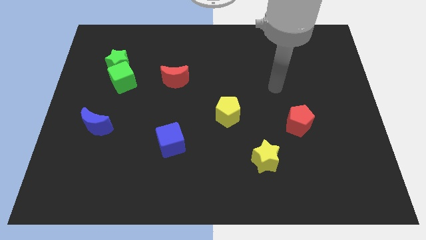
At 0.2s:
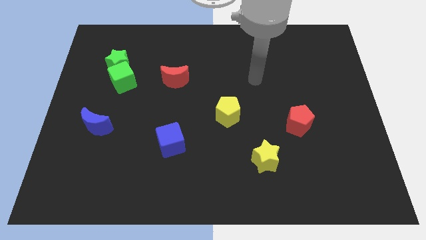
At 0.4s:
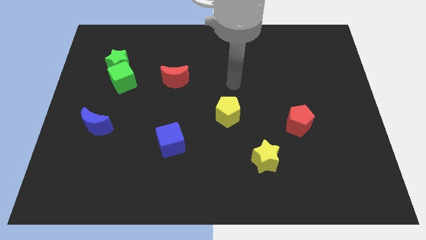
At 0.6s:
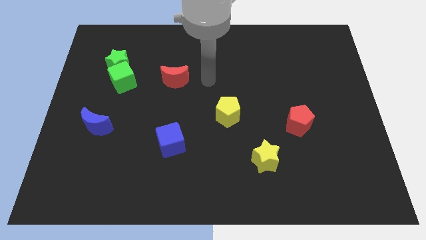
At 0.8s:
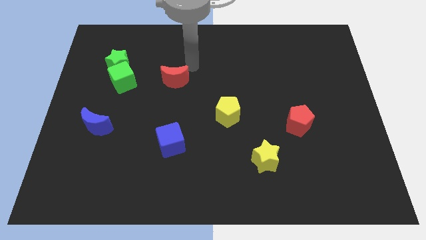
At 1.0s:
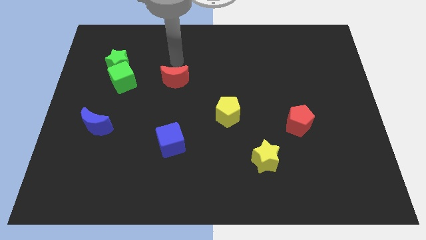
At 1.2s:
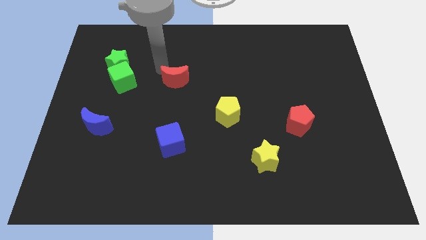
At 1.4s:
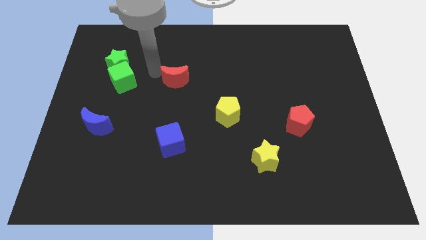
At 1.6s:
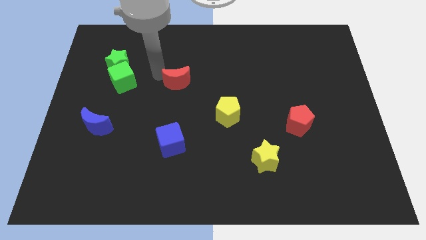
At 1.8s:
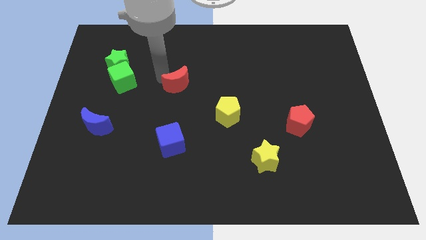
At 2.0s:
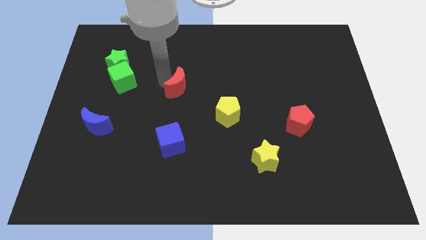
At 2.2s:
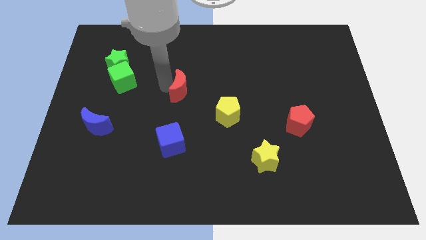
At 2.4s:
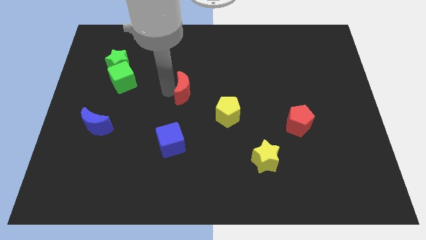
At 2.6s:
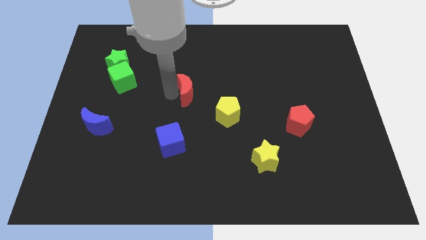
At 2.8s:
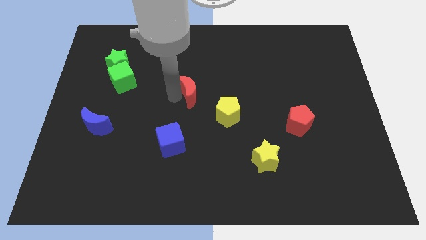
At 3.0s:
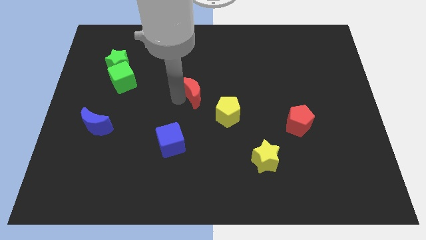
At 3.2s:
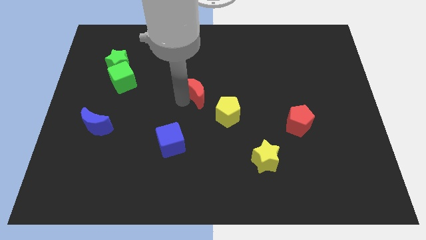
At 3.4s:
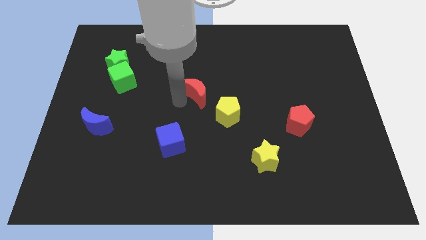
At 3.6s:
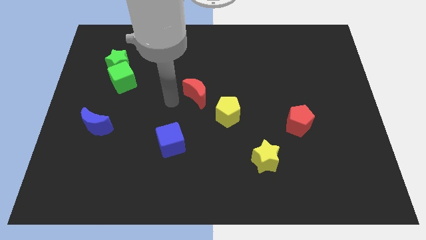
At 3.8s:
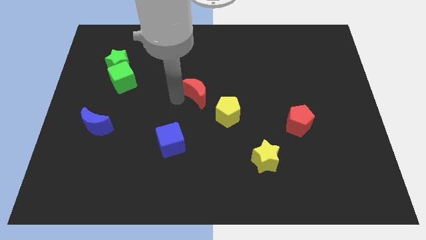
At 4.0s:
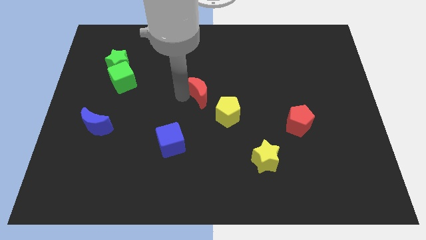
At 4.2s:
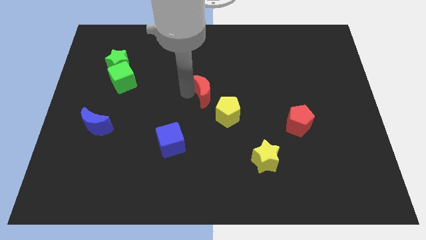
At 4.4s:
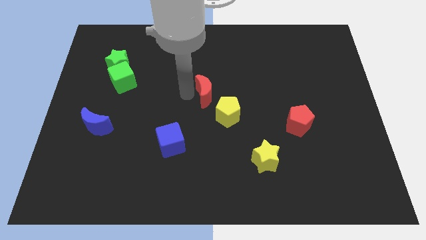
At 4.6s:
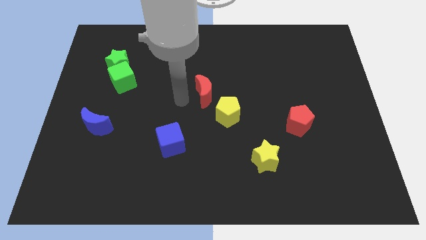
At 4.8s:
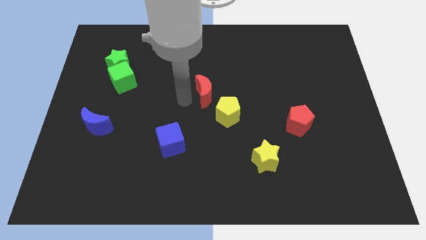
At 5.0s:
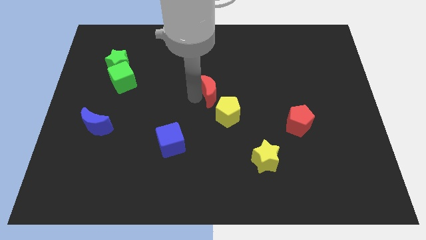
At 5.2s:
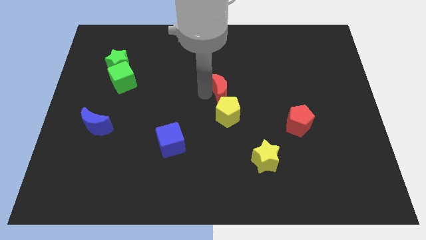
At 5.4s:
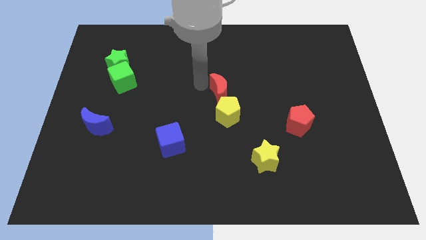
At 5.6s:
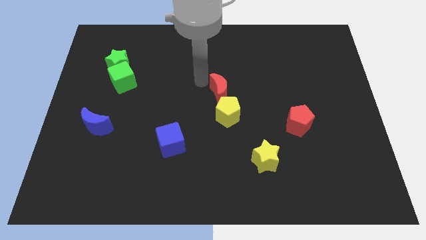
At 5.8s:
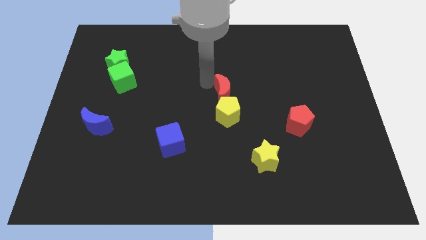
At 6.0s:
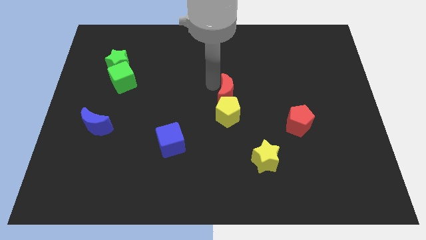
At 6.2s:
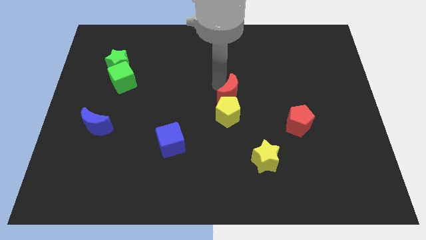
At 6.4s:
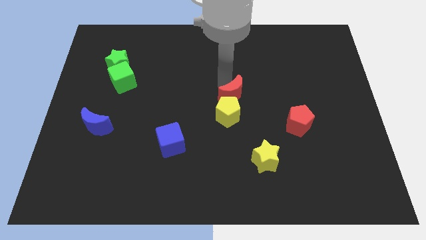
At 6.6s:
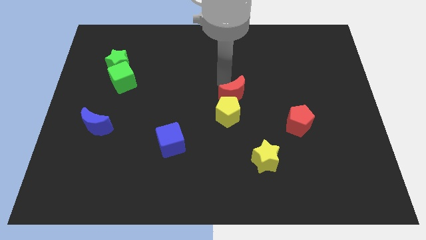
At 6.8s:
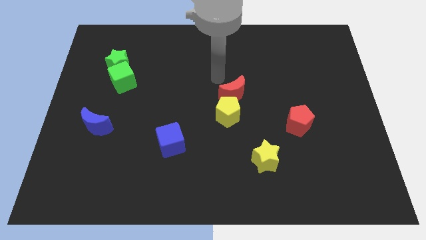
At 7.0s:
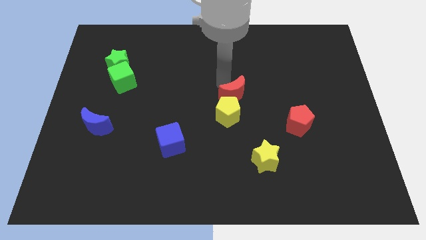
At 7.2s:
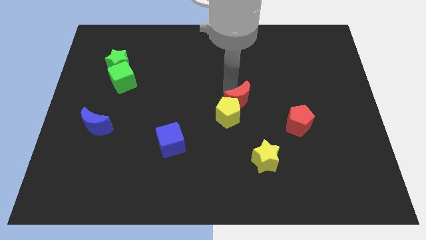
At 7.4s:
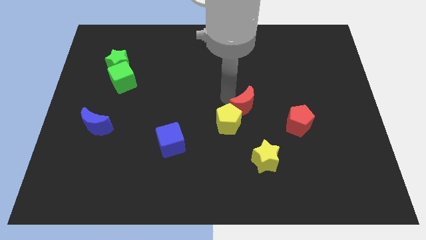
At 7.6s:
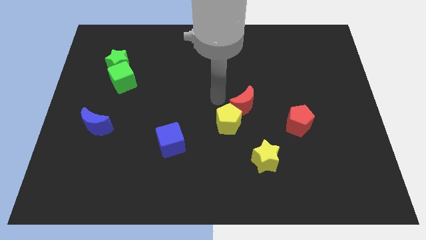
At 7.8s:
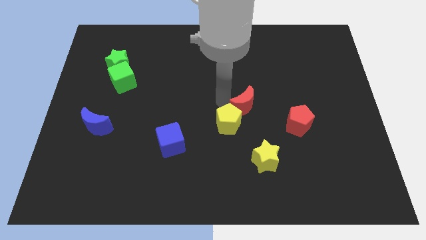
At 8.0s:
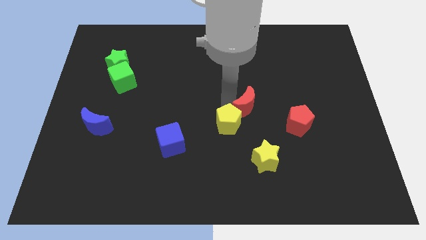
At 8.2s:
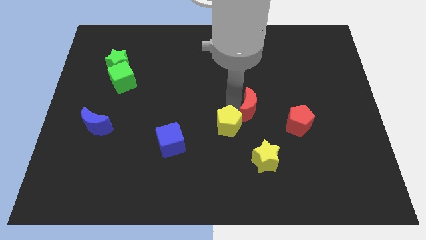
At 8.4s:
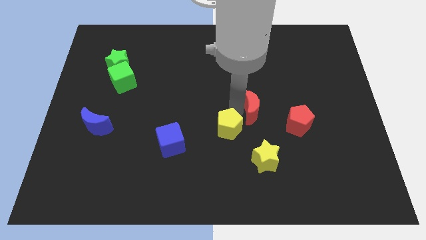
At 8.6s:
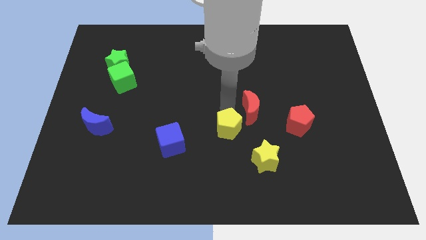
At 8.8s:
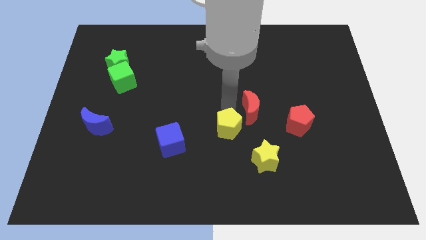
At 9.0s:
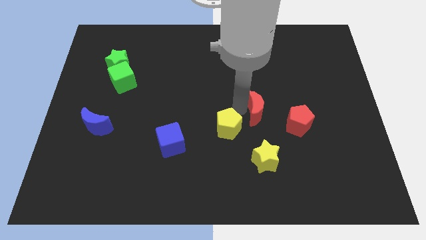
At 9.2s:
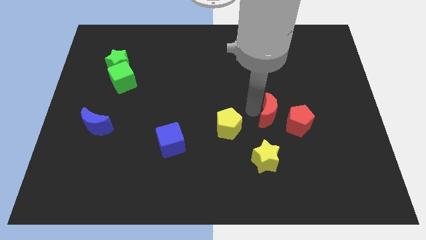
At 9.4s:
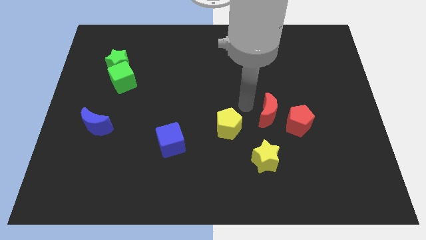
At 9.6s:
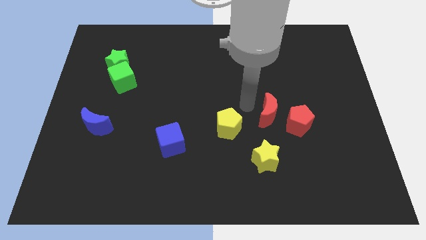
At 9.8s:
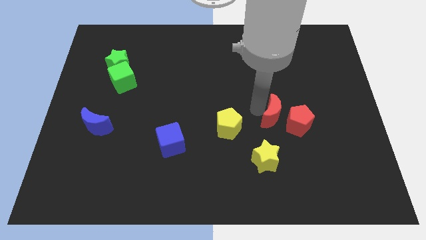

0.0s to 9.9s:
move the red moon next to the red pentagon

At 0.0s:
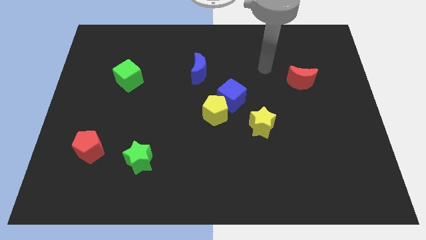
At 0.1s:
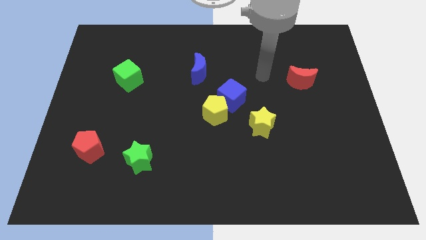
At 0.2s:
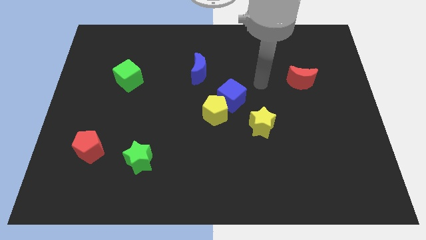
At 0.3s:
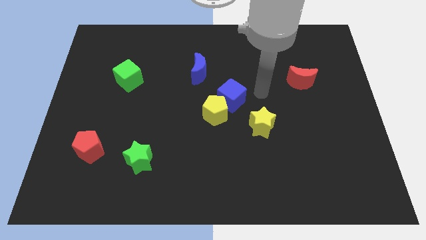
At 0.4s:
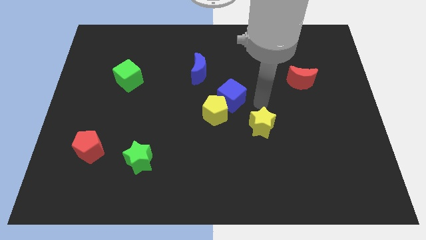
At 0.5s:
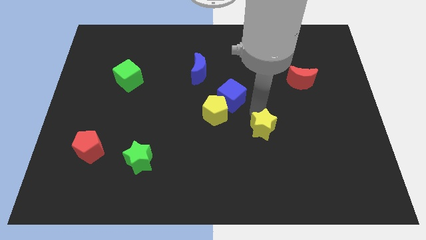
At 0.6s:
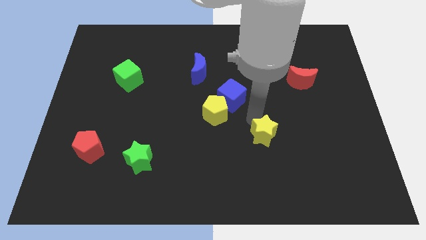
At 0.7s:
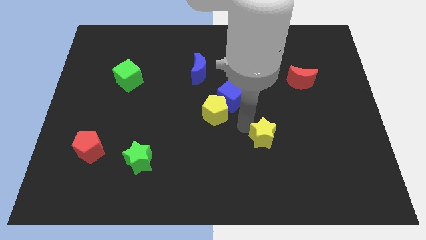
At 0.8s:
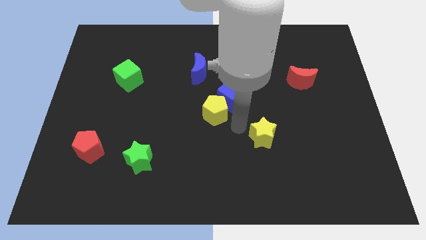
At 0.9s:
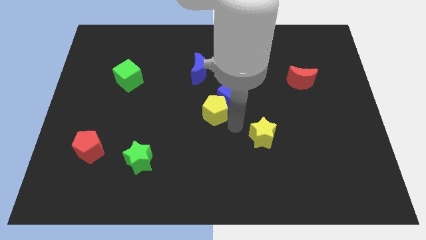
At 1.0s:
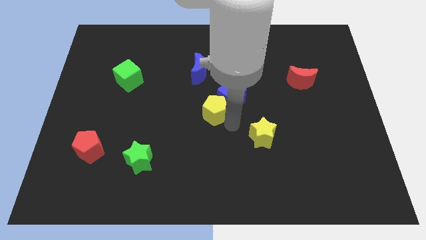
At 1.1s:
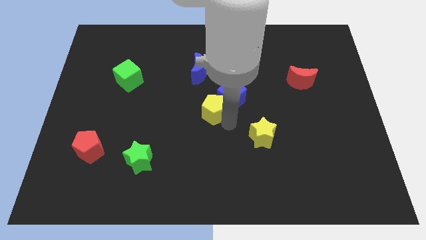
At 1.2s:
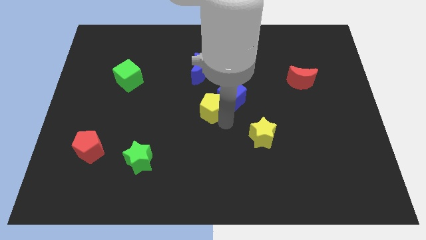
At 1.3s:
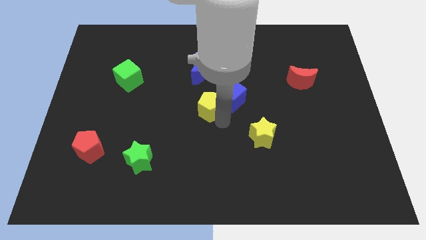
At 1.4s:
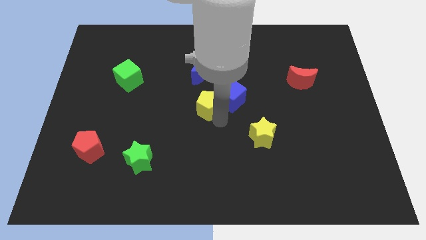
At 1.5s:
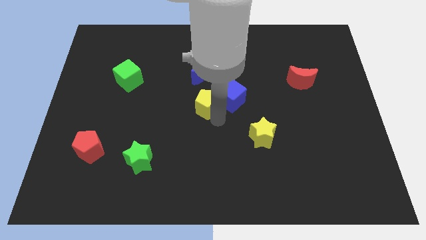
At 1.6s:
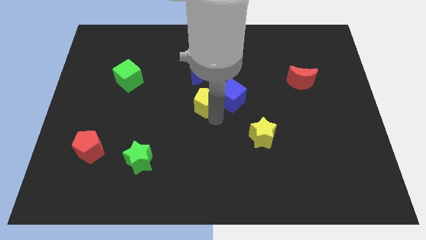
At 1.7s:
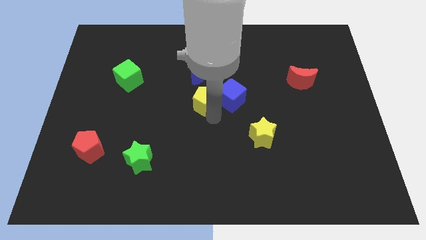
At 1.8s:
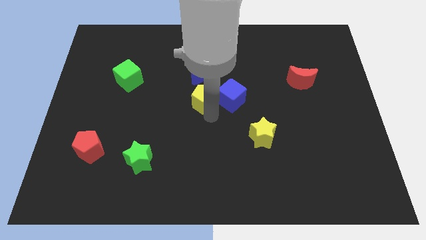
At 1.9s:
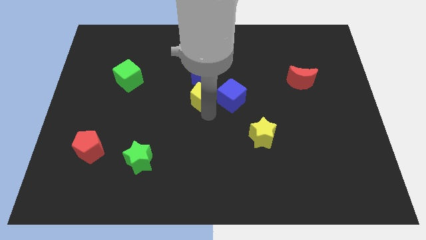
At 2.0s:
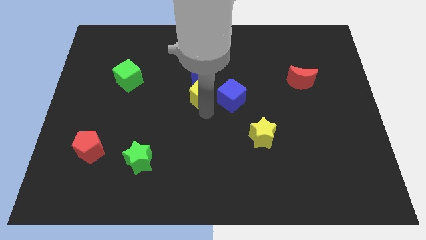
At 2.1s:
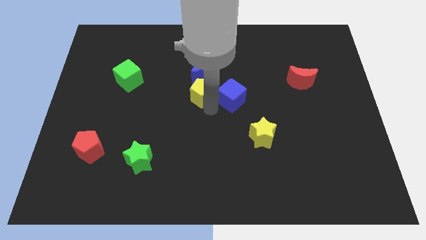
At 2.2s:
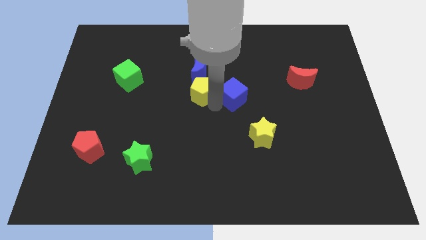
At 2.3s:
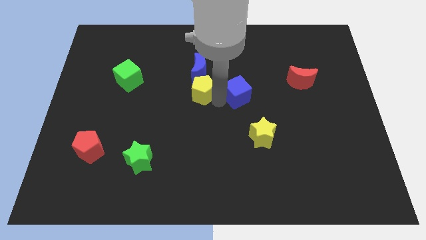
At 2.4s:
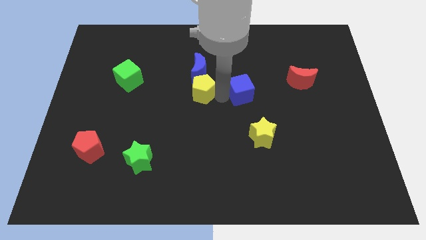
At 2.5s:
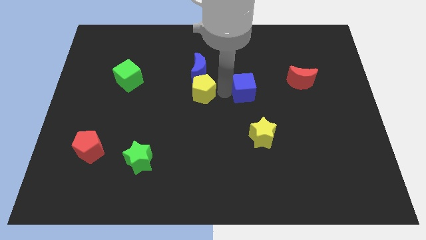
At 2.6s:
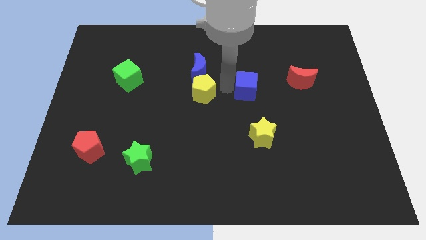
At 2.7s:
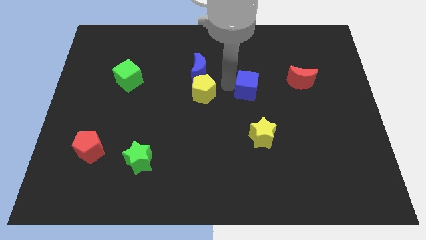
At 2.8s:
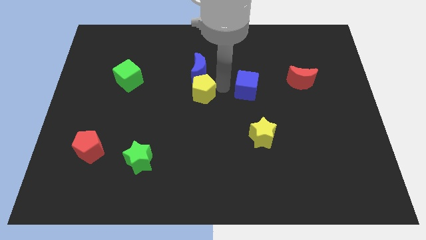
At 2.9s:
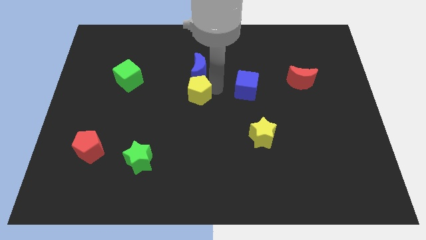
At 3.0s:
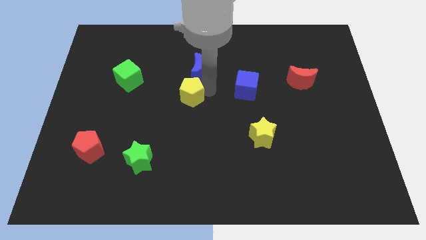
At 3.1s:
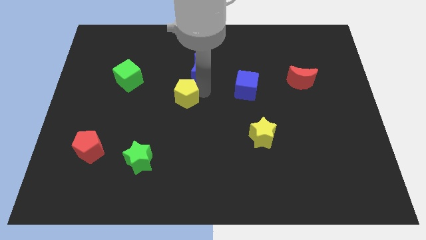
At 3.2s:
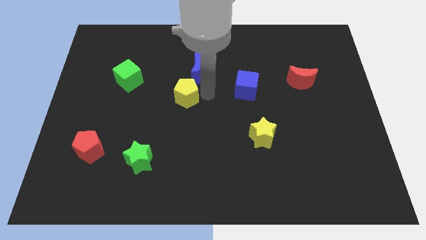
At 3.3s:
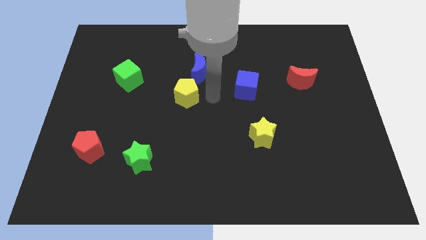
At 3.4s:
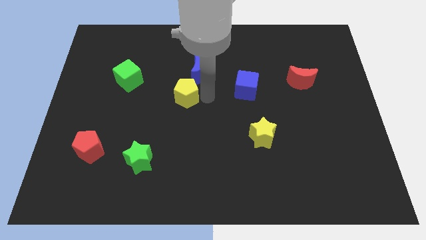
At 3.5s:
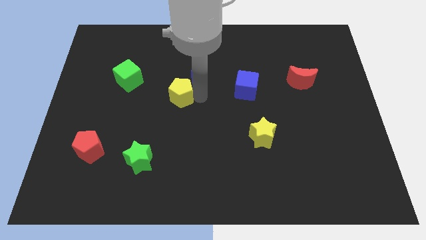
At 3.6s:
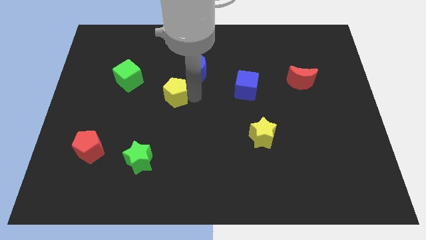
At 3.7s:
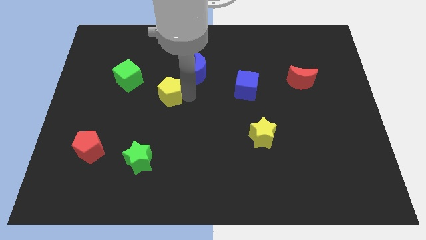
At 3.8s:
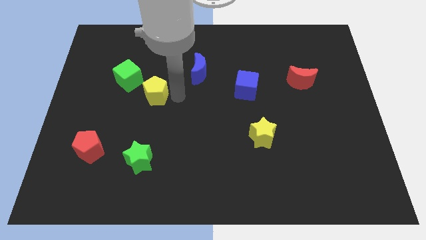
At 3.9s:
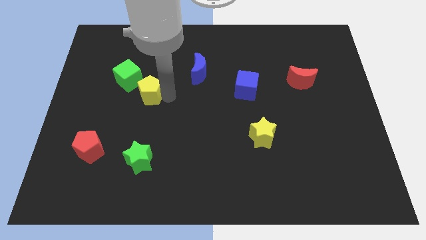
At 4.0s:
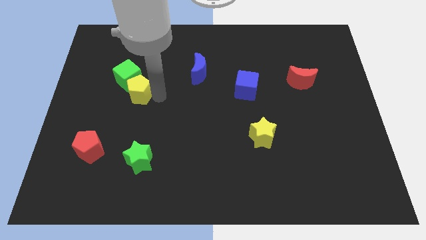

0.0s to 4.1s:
push the yellow pentagon close to the green cube
